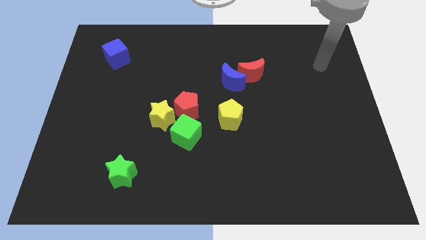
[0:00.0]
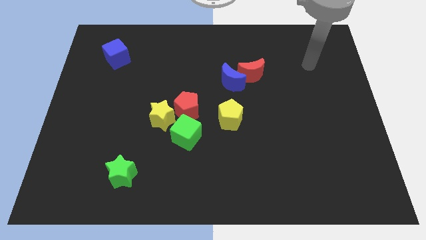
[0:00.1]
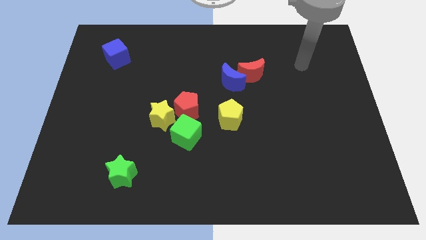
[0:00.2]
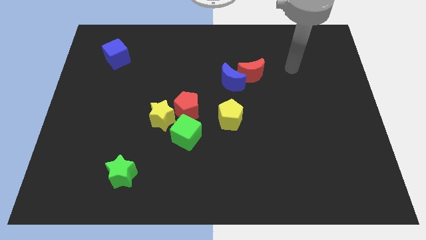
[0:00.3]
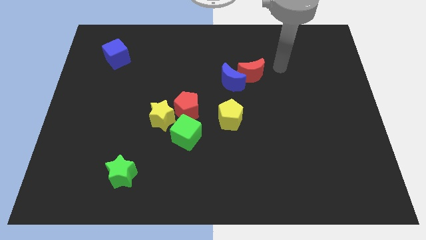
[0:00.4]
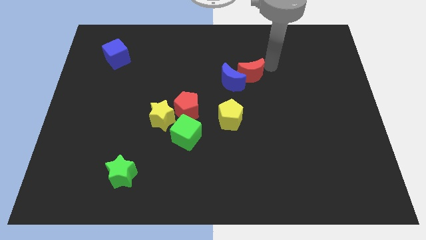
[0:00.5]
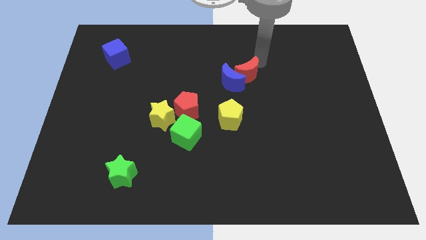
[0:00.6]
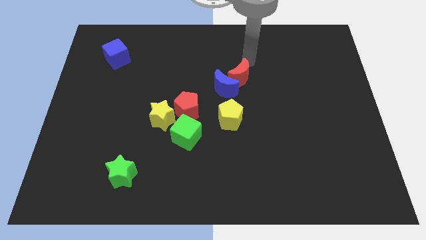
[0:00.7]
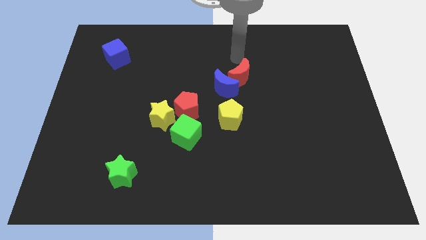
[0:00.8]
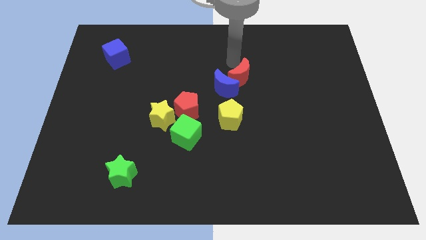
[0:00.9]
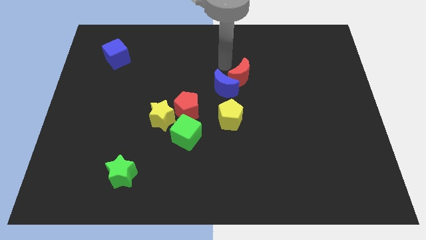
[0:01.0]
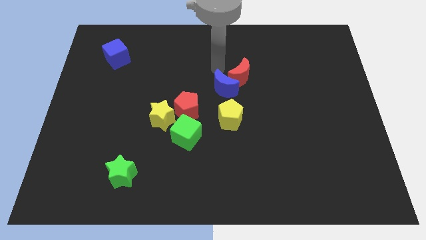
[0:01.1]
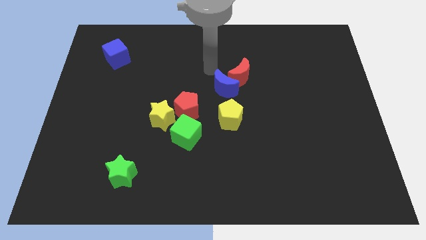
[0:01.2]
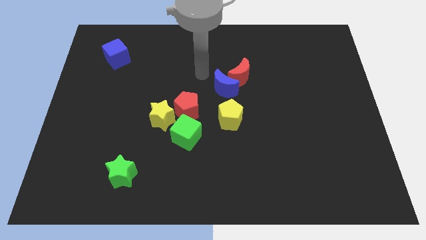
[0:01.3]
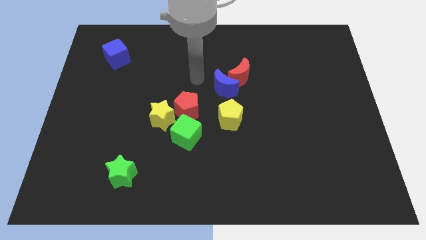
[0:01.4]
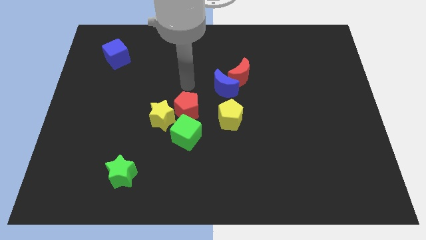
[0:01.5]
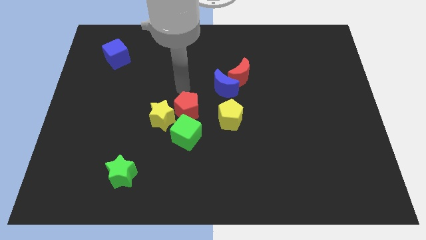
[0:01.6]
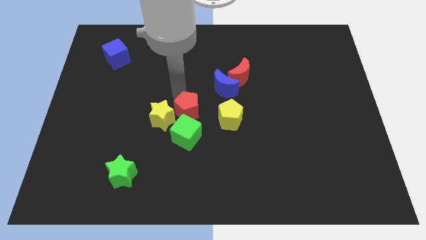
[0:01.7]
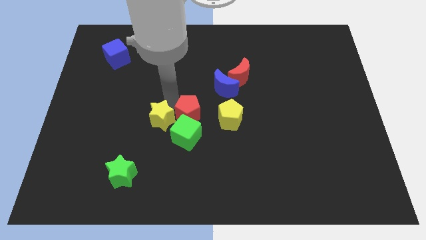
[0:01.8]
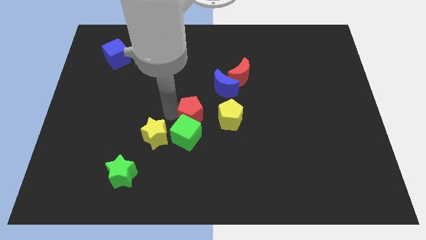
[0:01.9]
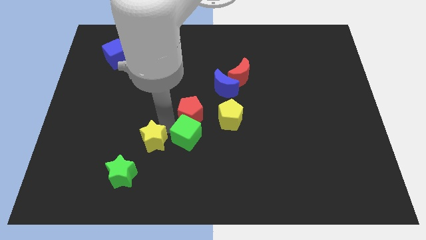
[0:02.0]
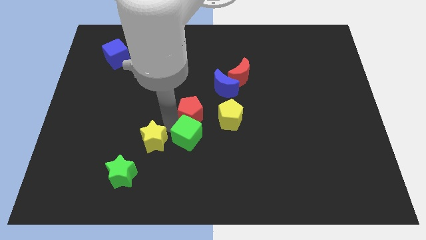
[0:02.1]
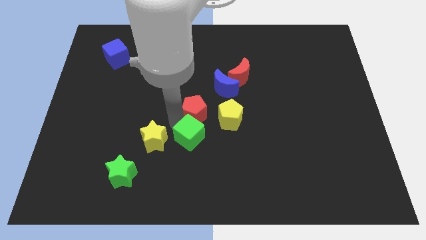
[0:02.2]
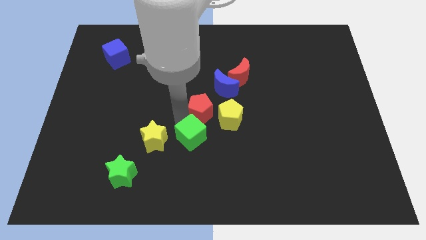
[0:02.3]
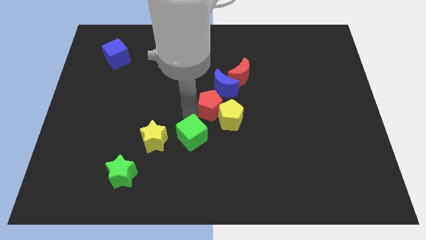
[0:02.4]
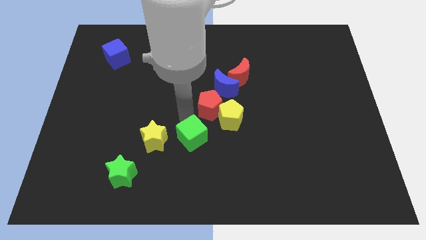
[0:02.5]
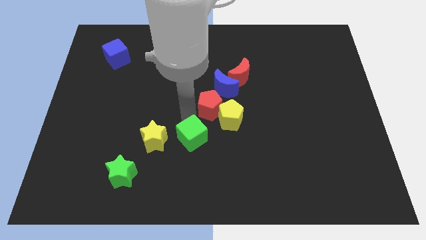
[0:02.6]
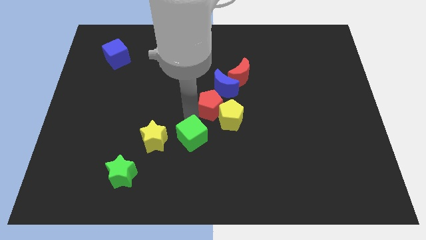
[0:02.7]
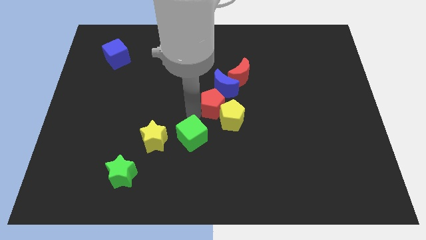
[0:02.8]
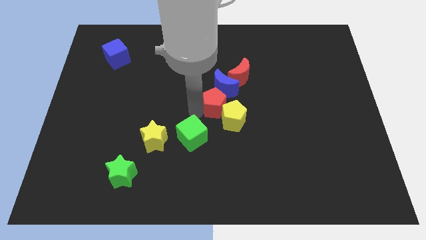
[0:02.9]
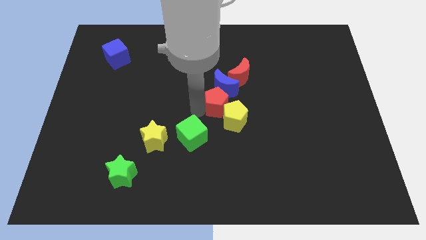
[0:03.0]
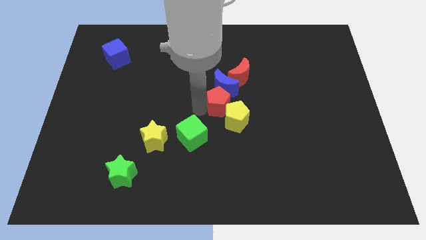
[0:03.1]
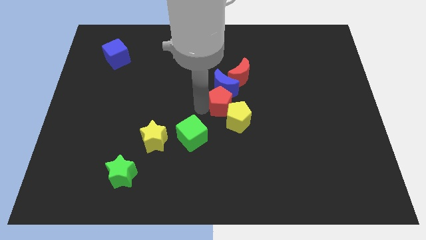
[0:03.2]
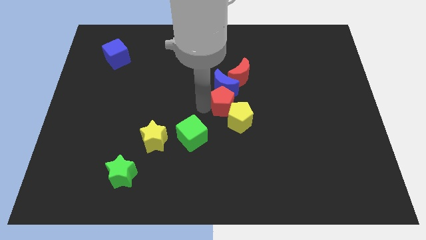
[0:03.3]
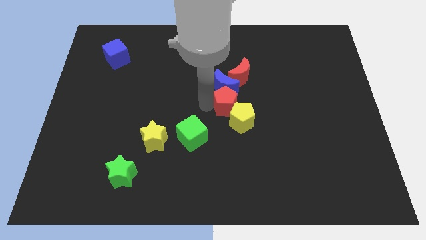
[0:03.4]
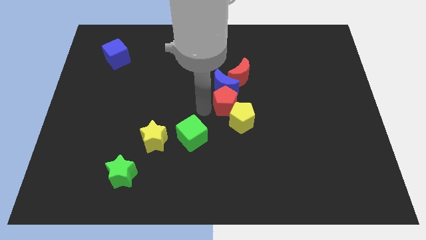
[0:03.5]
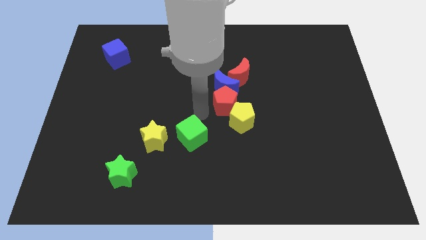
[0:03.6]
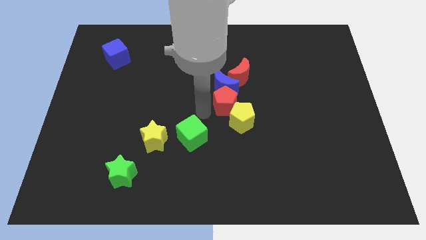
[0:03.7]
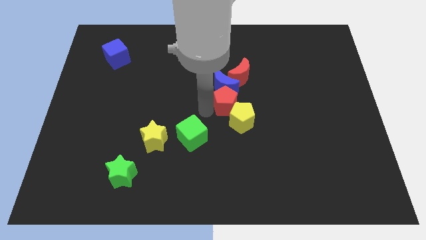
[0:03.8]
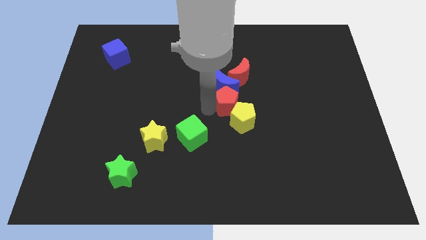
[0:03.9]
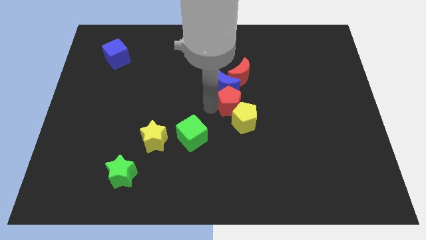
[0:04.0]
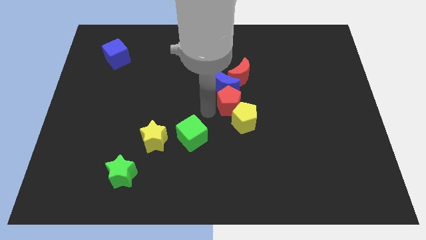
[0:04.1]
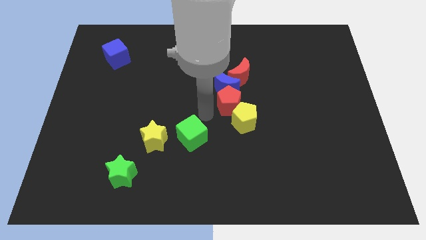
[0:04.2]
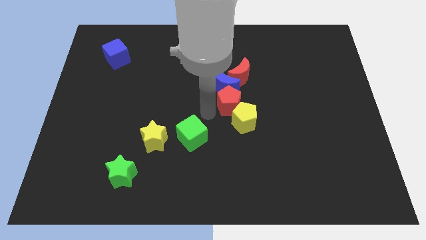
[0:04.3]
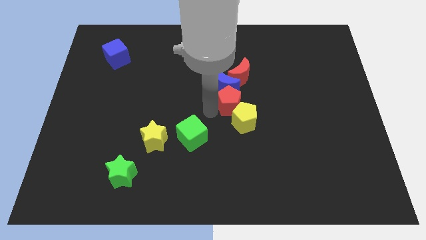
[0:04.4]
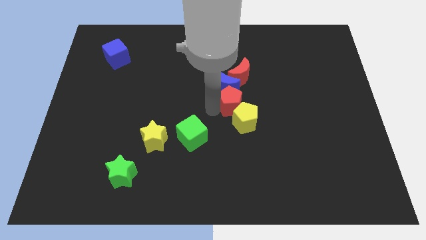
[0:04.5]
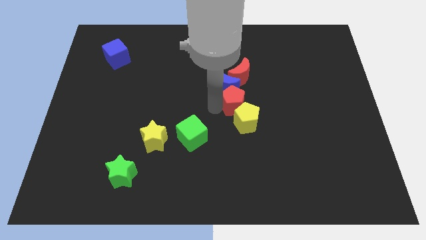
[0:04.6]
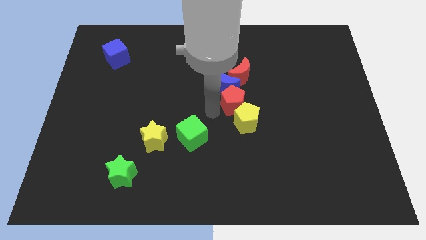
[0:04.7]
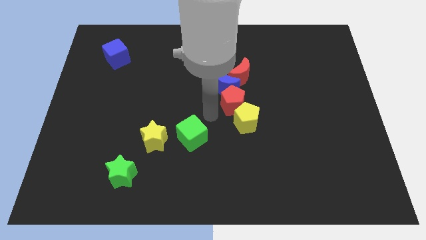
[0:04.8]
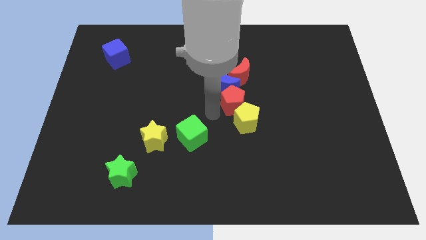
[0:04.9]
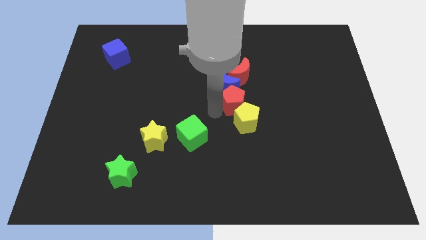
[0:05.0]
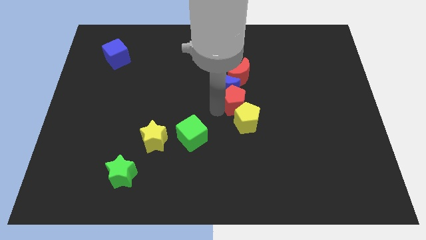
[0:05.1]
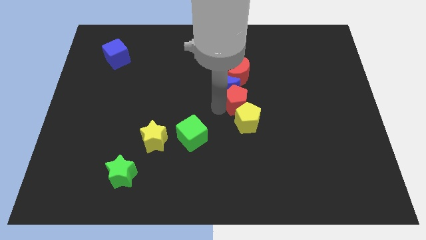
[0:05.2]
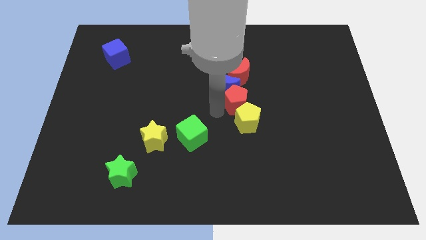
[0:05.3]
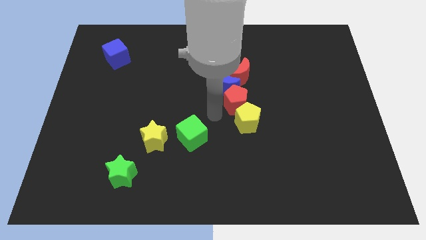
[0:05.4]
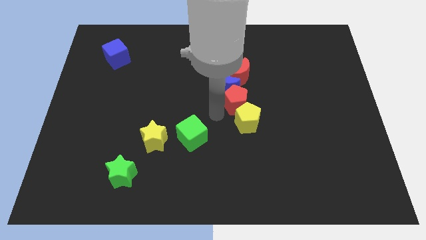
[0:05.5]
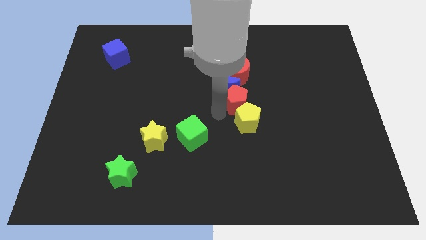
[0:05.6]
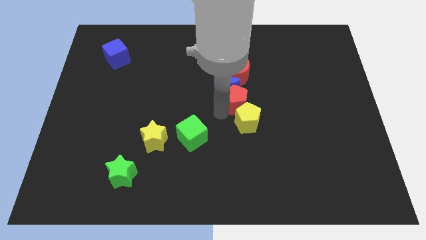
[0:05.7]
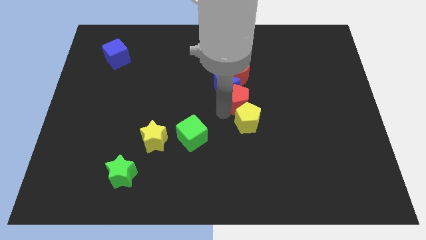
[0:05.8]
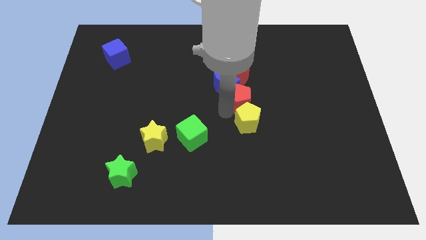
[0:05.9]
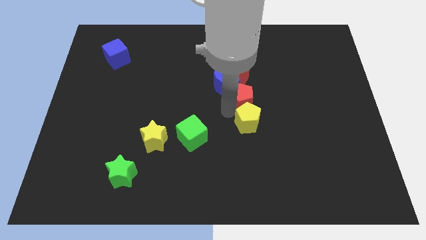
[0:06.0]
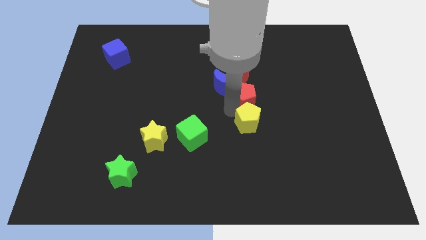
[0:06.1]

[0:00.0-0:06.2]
move the red pentagon to the bottom right of the red moon

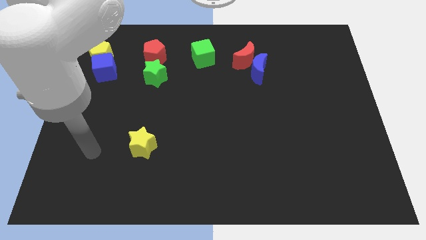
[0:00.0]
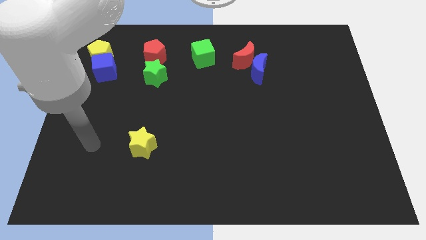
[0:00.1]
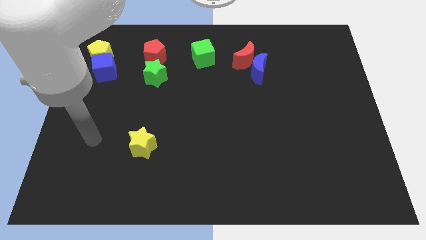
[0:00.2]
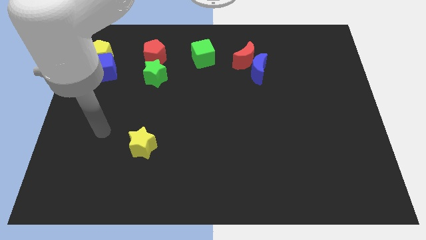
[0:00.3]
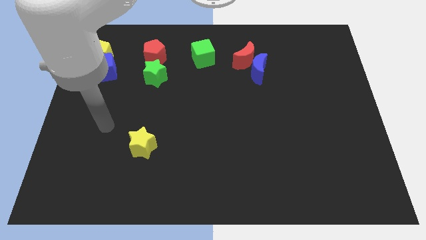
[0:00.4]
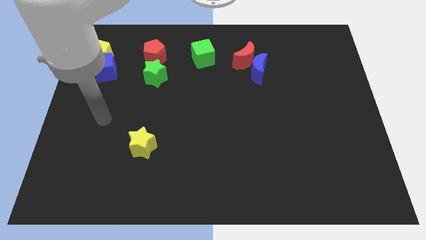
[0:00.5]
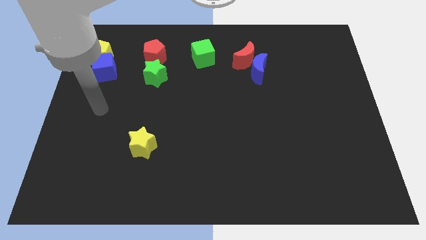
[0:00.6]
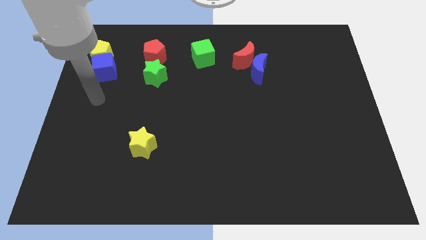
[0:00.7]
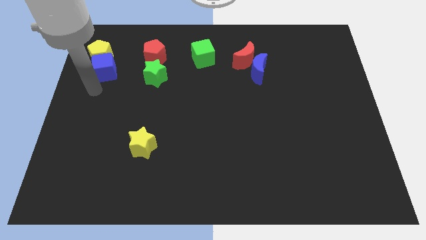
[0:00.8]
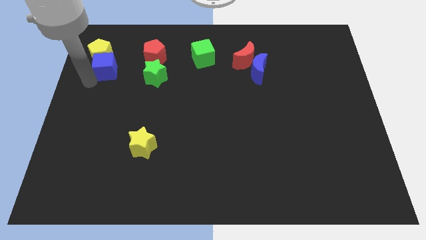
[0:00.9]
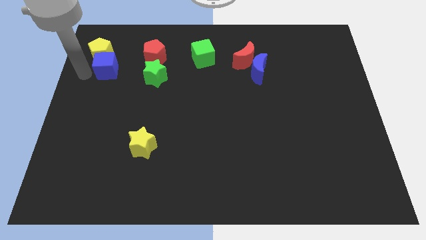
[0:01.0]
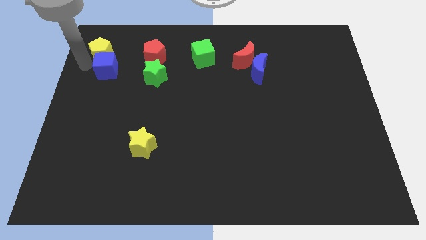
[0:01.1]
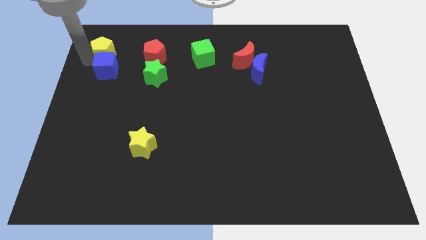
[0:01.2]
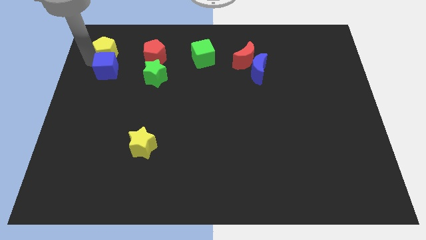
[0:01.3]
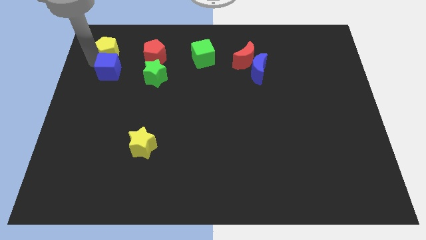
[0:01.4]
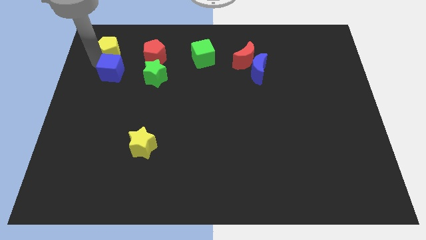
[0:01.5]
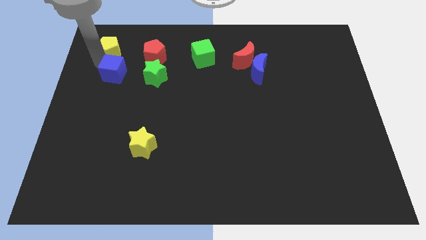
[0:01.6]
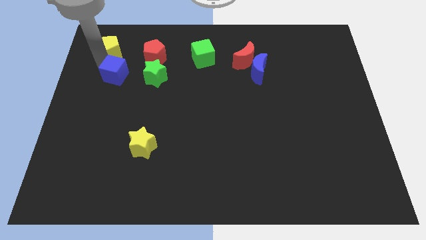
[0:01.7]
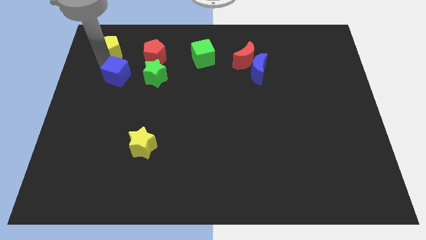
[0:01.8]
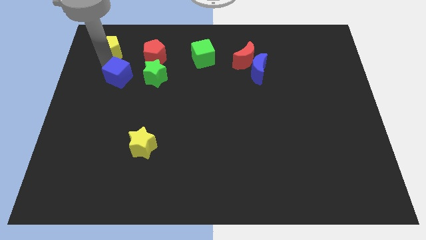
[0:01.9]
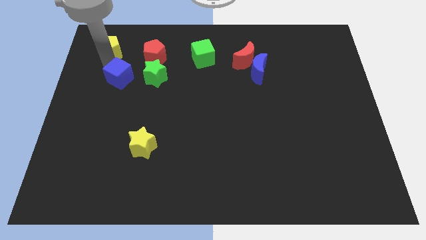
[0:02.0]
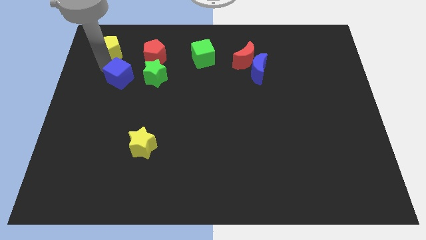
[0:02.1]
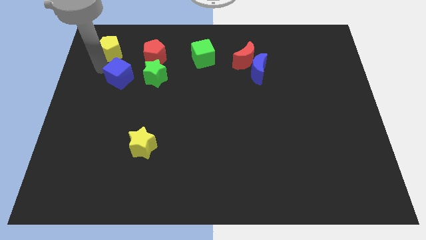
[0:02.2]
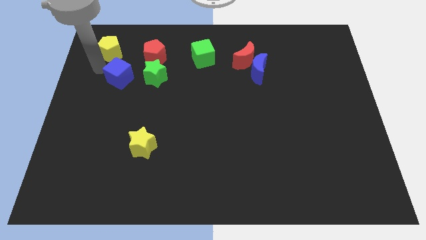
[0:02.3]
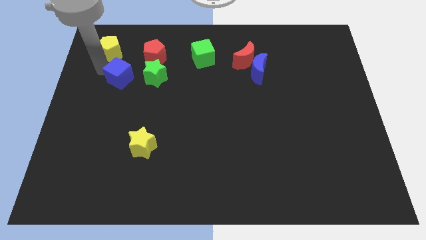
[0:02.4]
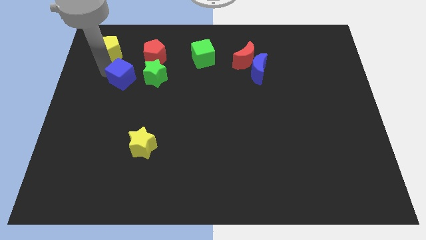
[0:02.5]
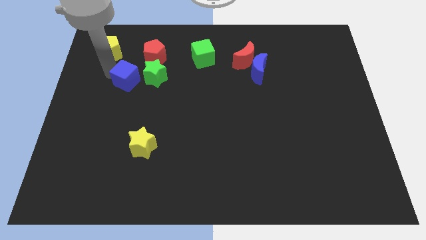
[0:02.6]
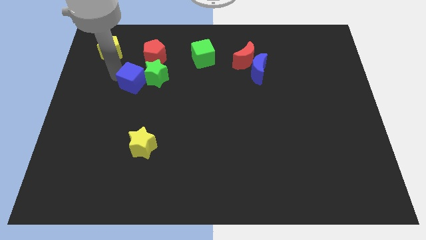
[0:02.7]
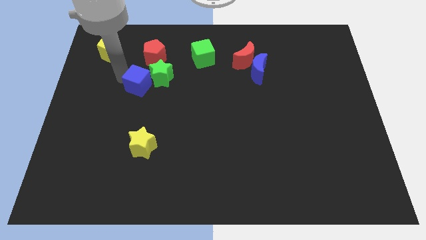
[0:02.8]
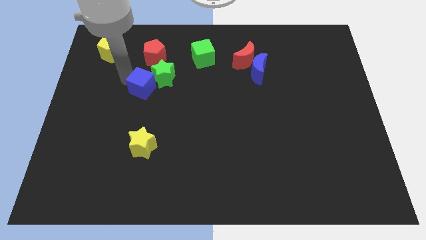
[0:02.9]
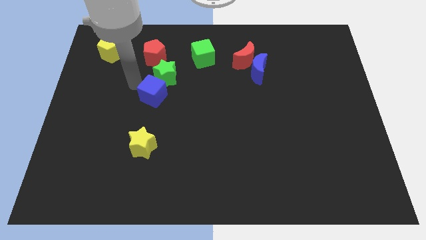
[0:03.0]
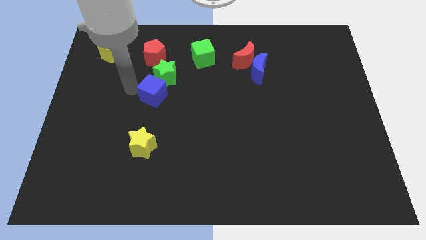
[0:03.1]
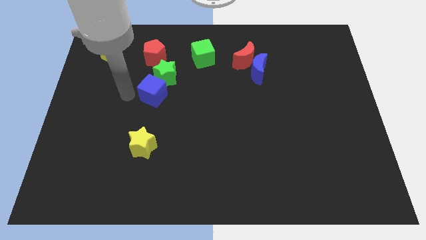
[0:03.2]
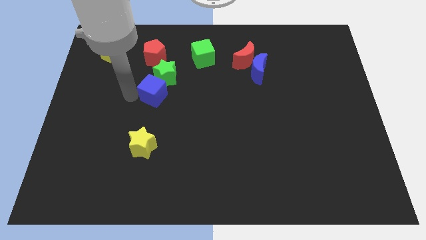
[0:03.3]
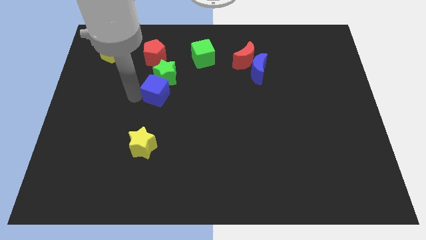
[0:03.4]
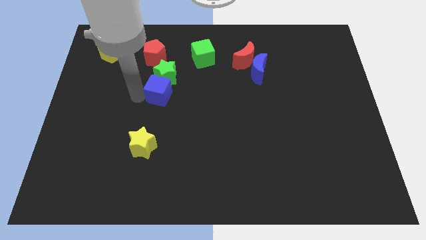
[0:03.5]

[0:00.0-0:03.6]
push the blue cube to the bottom right side of the green star
